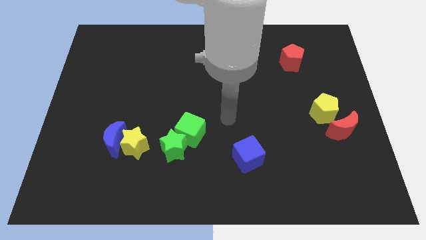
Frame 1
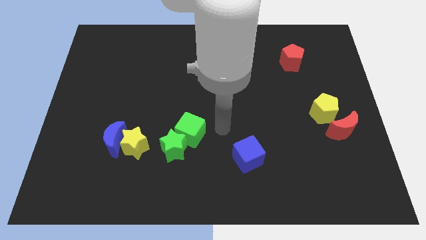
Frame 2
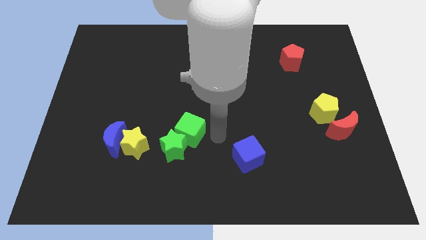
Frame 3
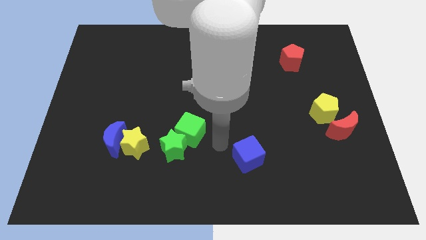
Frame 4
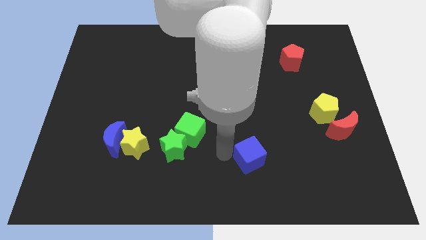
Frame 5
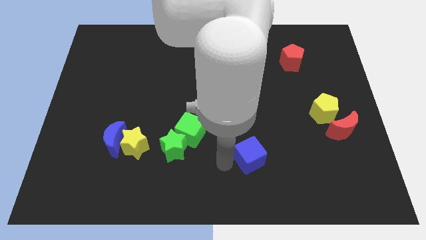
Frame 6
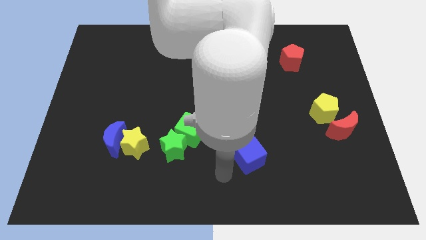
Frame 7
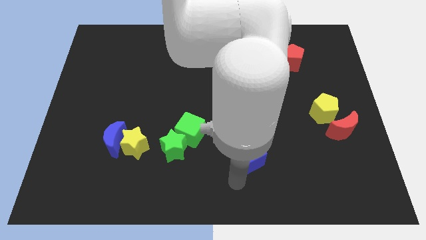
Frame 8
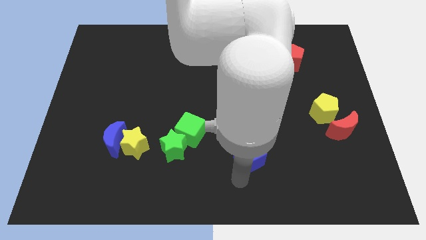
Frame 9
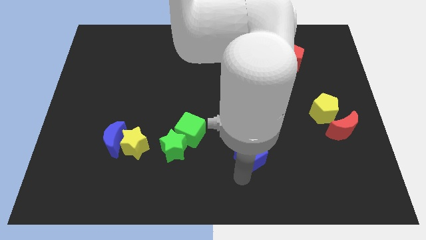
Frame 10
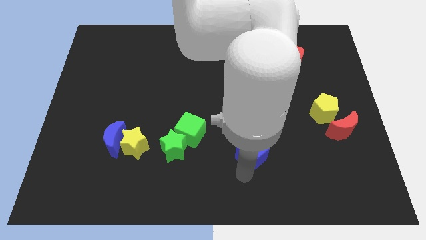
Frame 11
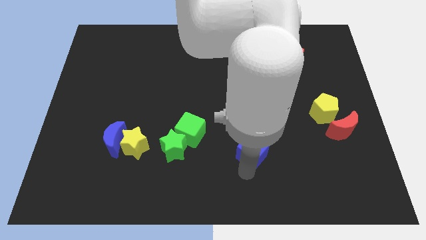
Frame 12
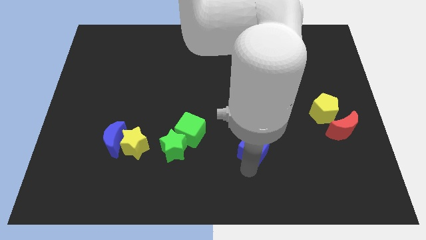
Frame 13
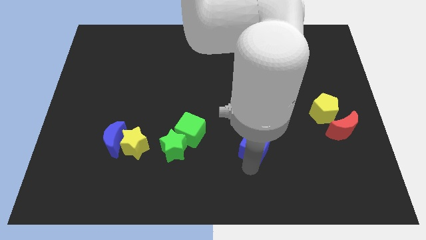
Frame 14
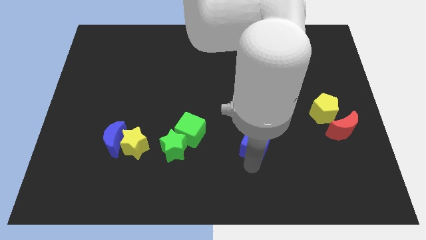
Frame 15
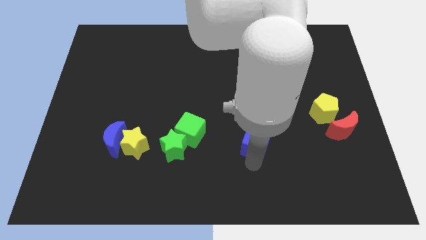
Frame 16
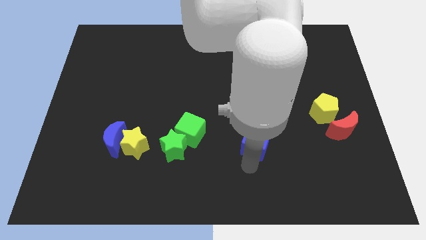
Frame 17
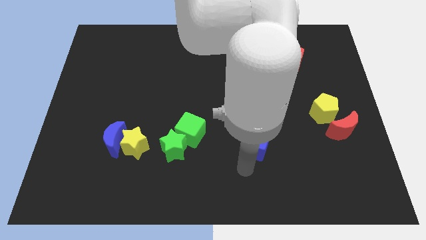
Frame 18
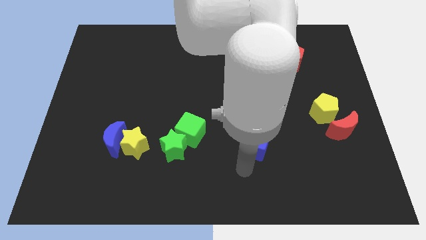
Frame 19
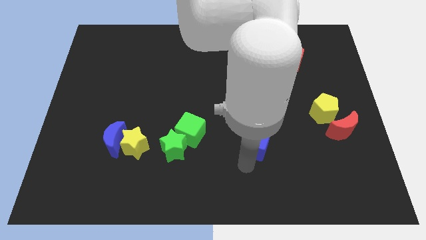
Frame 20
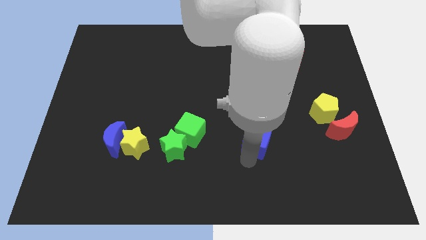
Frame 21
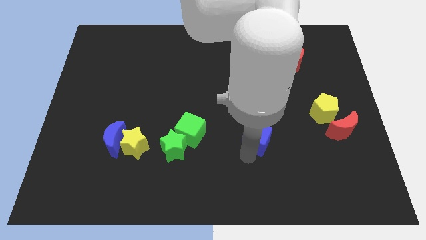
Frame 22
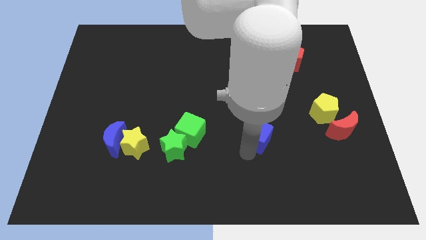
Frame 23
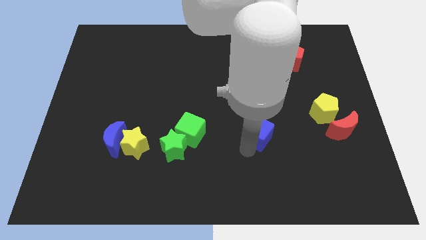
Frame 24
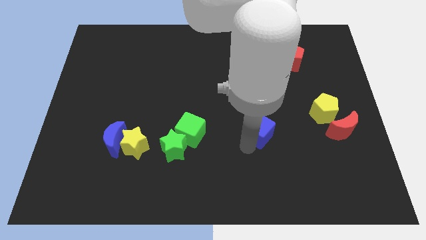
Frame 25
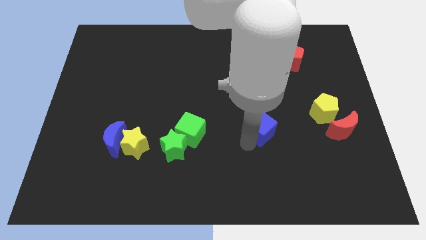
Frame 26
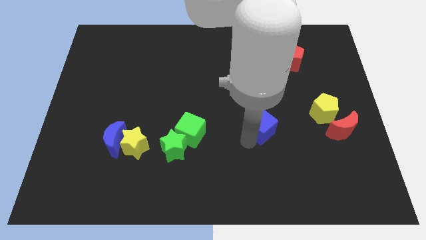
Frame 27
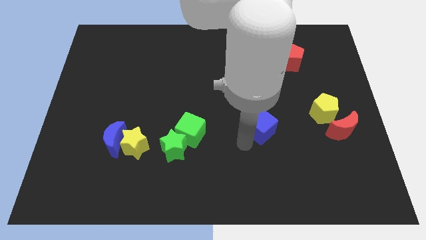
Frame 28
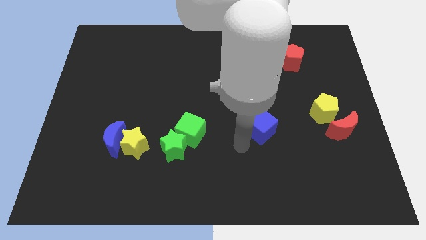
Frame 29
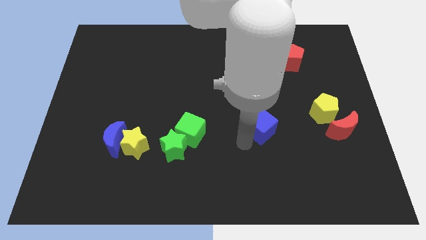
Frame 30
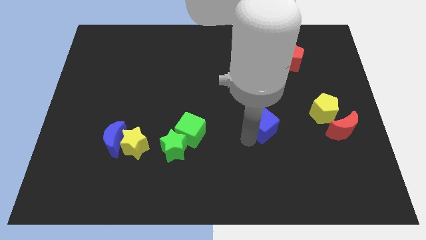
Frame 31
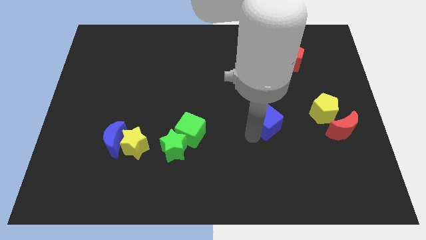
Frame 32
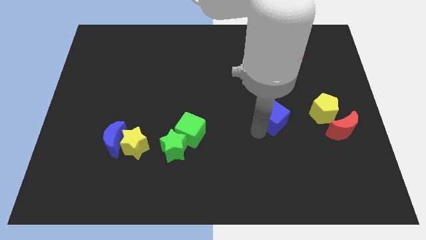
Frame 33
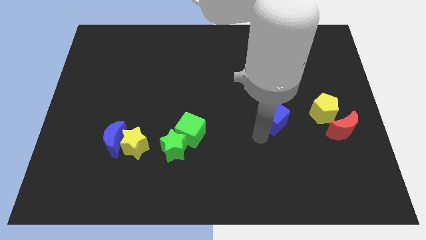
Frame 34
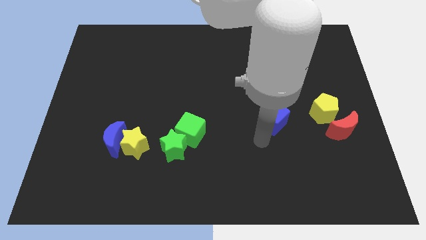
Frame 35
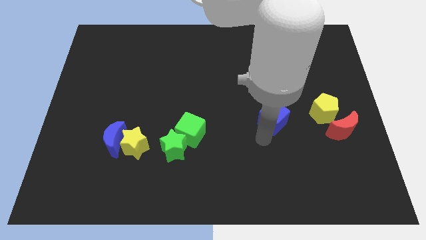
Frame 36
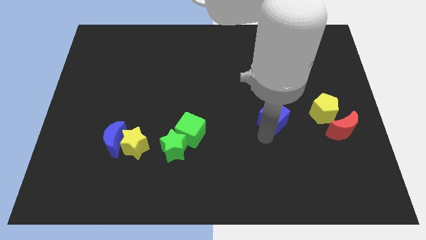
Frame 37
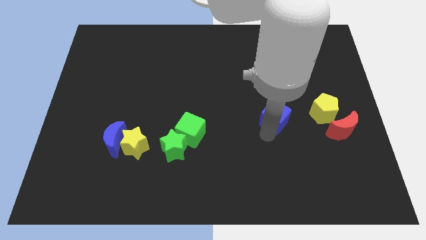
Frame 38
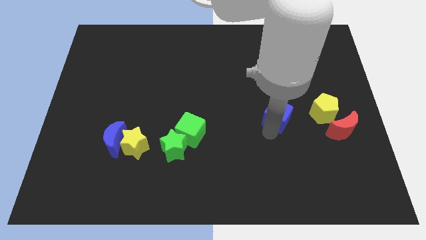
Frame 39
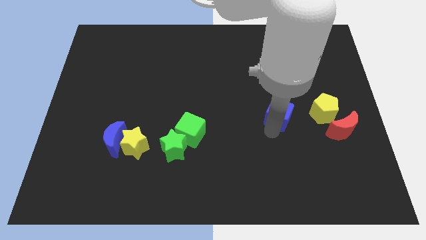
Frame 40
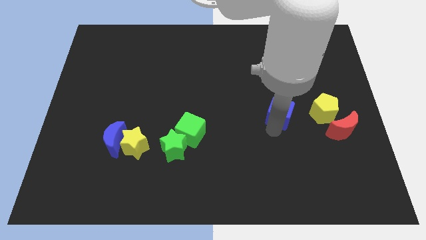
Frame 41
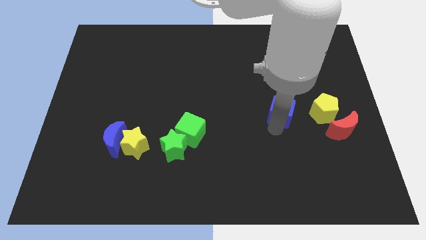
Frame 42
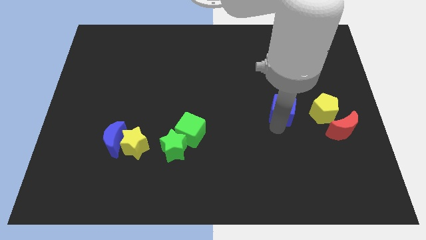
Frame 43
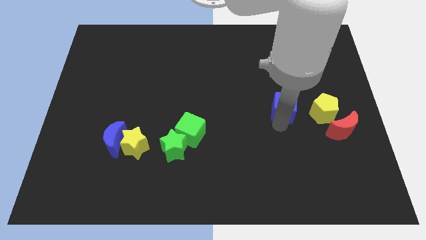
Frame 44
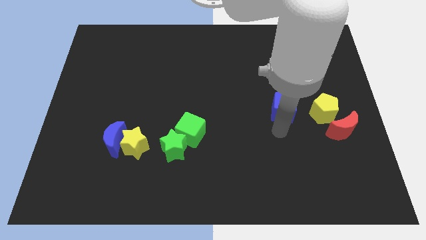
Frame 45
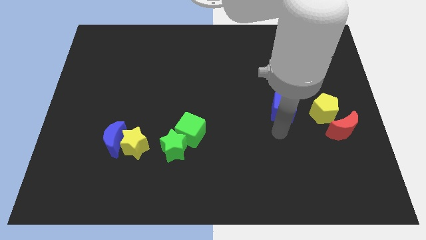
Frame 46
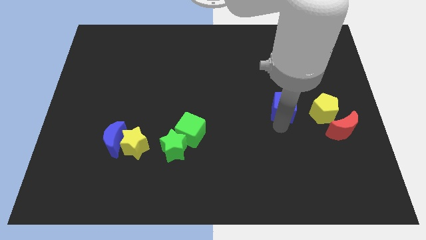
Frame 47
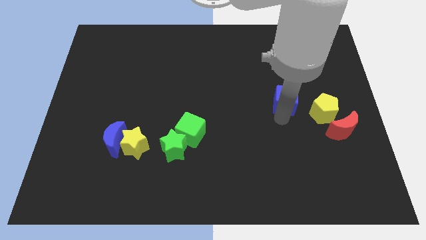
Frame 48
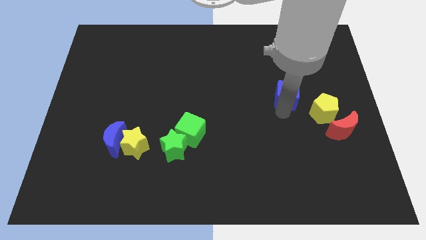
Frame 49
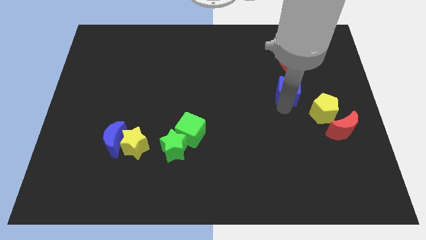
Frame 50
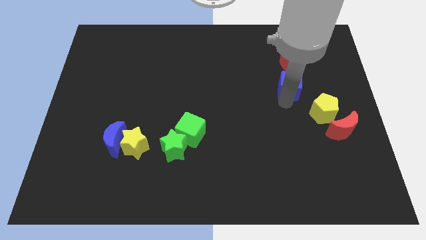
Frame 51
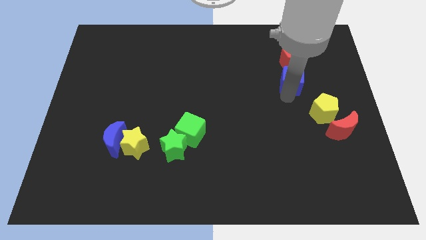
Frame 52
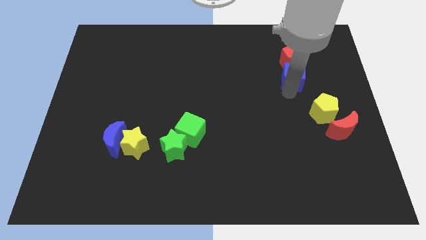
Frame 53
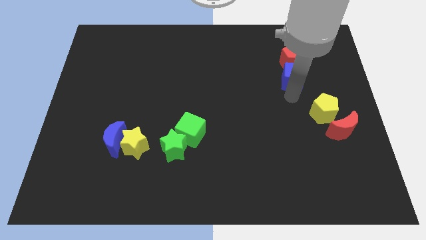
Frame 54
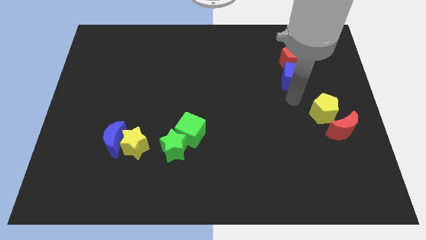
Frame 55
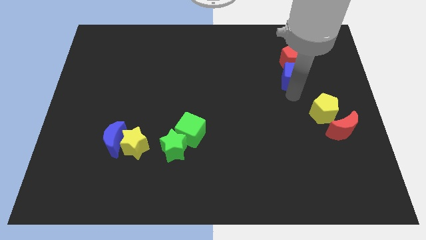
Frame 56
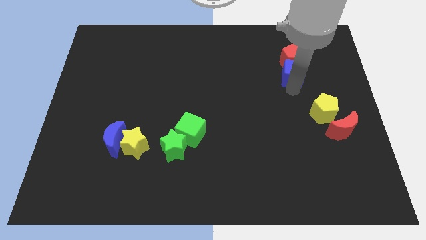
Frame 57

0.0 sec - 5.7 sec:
put the blue cube to the red pentagon

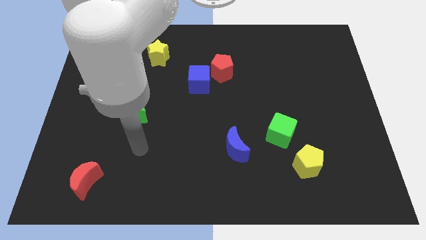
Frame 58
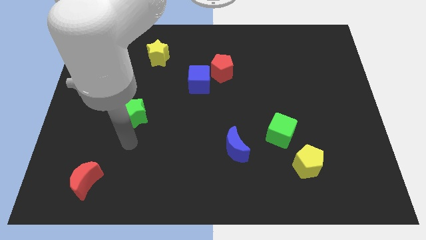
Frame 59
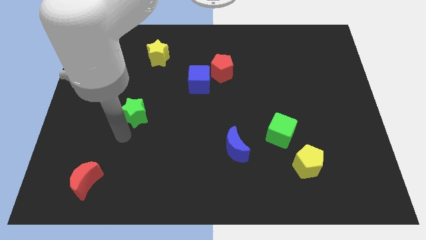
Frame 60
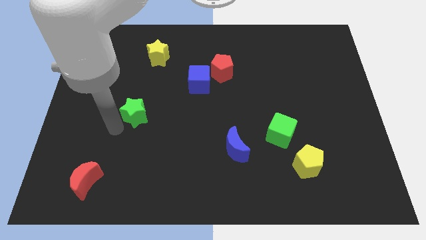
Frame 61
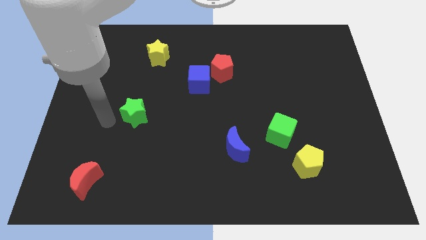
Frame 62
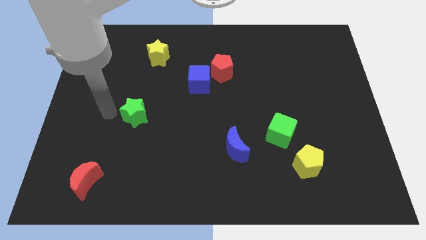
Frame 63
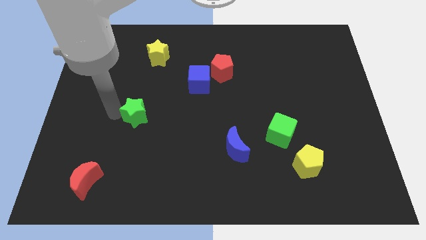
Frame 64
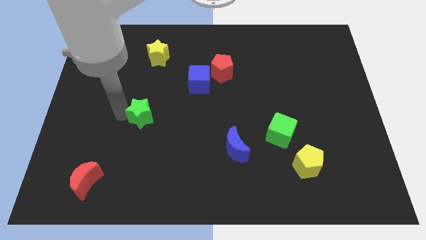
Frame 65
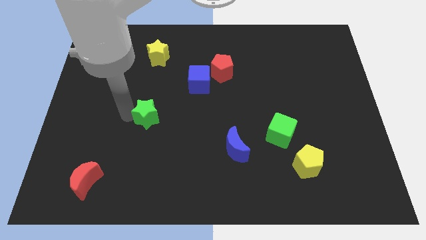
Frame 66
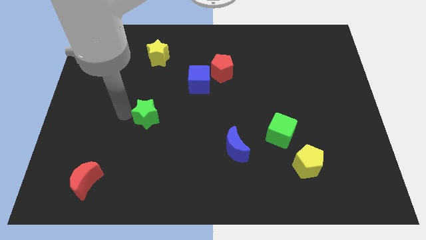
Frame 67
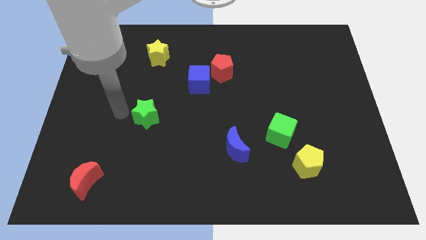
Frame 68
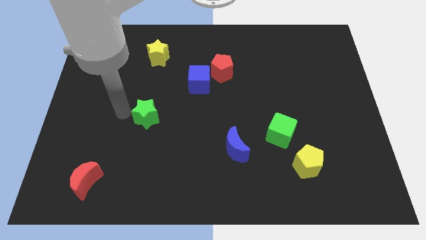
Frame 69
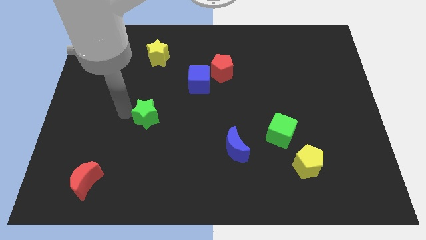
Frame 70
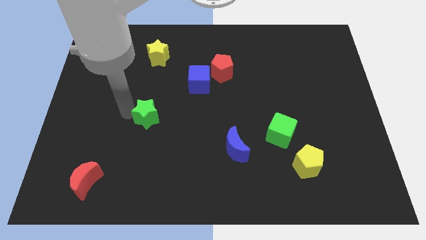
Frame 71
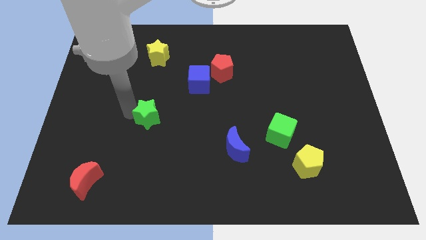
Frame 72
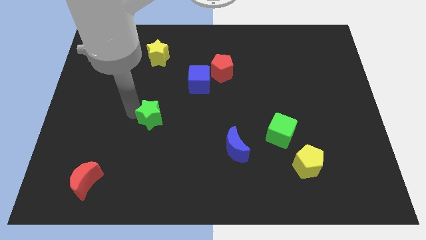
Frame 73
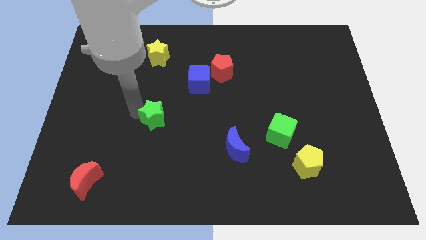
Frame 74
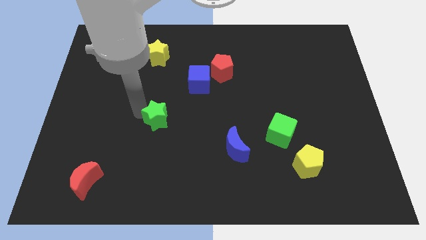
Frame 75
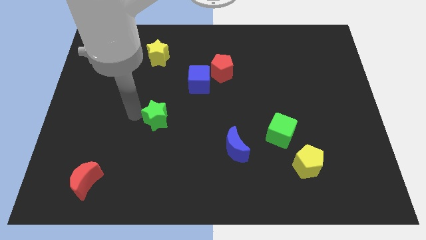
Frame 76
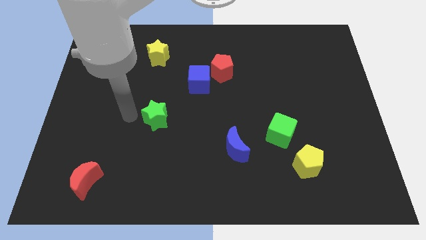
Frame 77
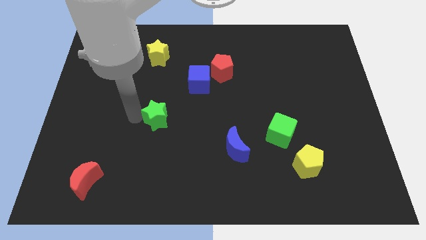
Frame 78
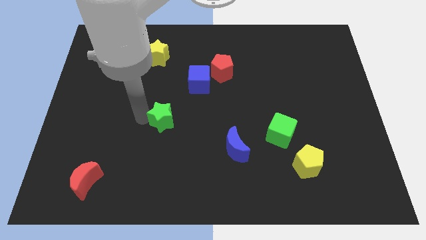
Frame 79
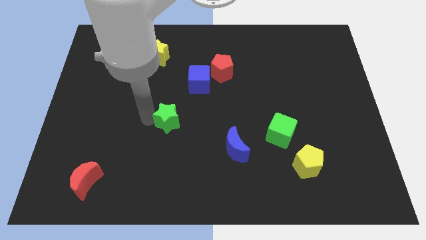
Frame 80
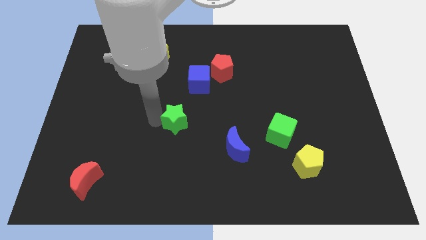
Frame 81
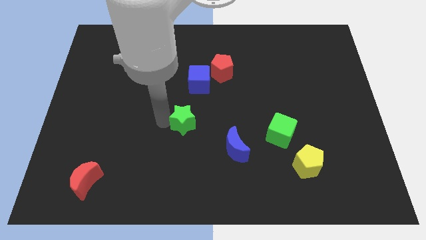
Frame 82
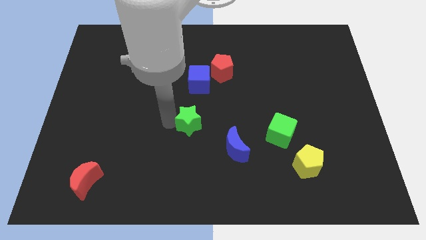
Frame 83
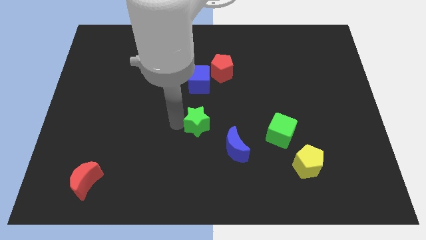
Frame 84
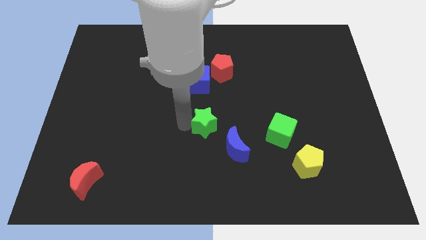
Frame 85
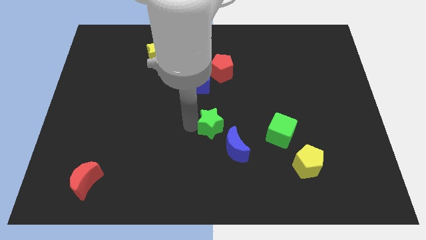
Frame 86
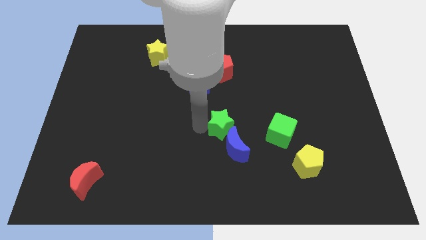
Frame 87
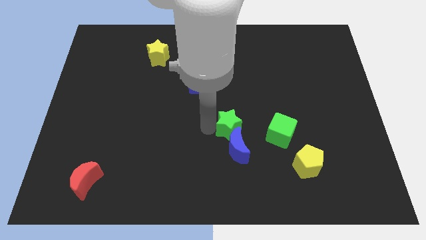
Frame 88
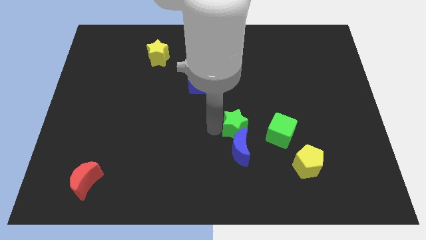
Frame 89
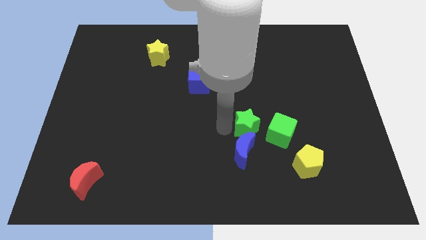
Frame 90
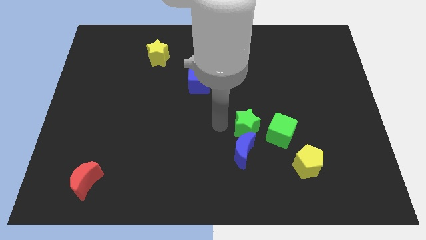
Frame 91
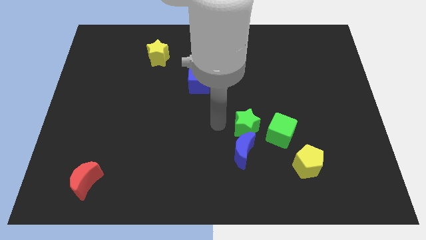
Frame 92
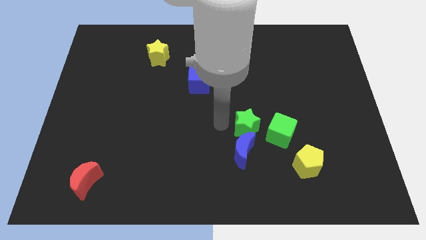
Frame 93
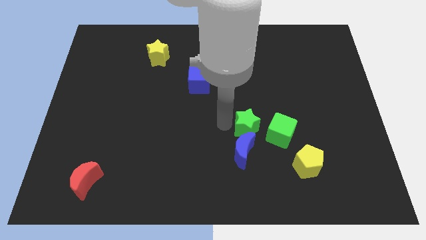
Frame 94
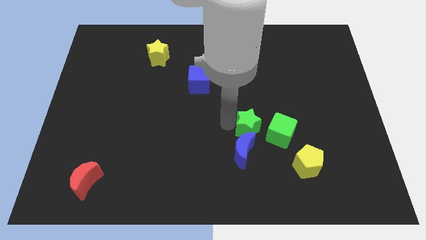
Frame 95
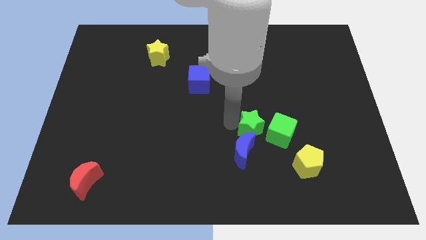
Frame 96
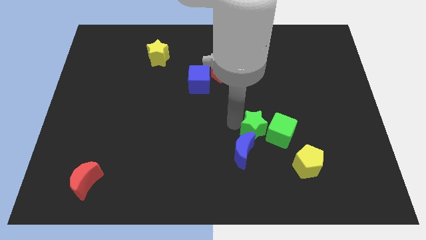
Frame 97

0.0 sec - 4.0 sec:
move the green star to the green cube
